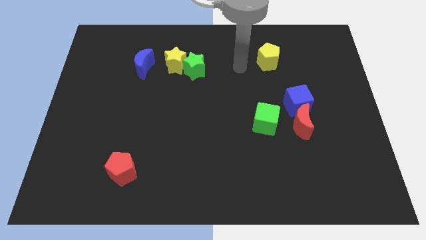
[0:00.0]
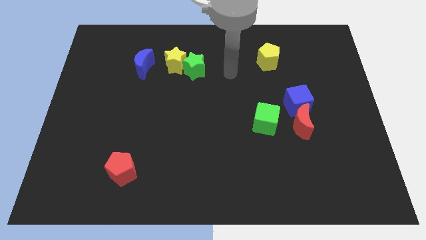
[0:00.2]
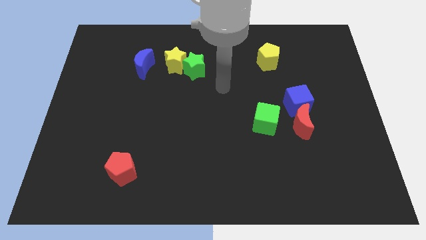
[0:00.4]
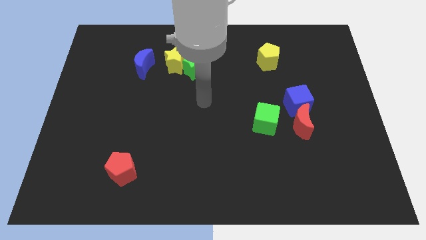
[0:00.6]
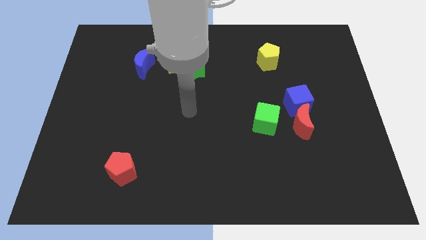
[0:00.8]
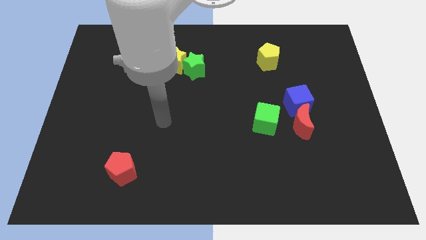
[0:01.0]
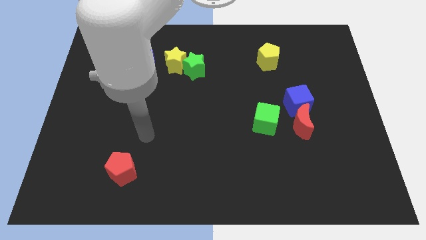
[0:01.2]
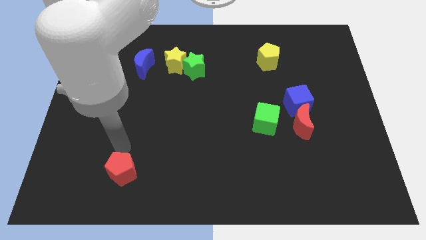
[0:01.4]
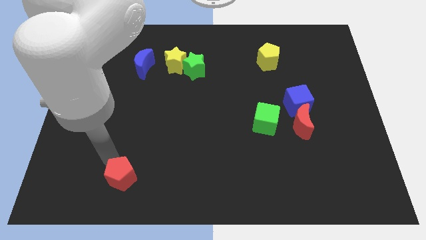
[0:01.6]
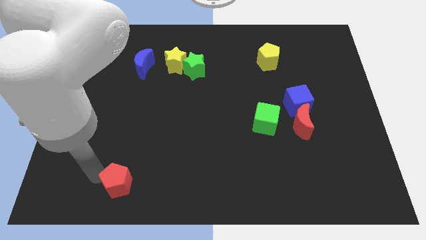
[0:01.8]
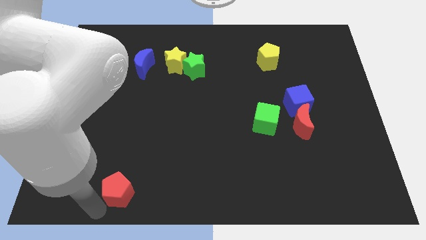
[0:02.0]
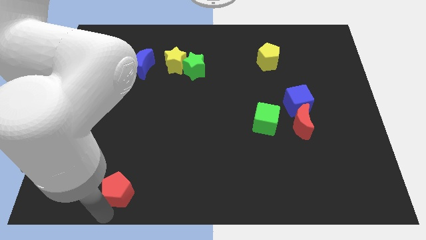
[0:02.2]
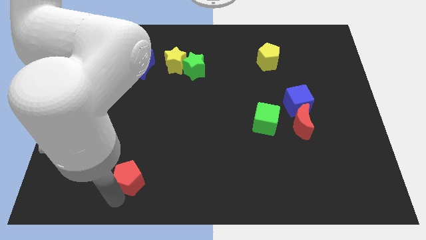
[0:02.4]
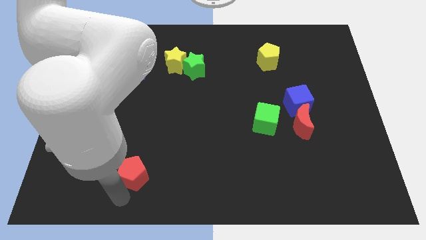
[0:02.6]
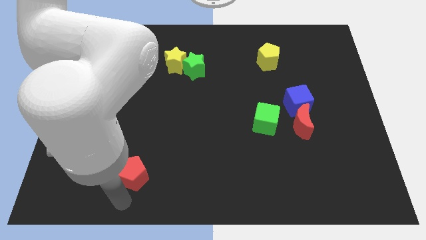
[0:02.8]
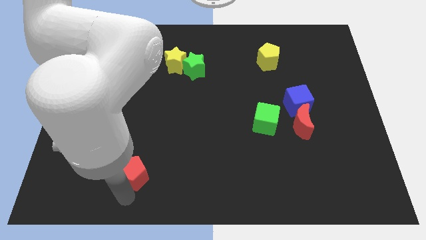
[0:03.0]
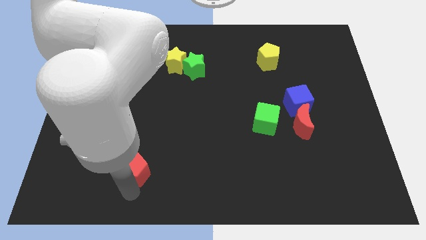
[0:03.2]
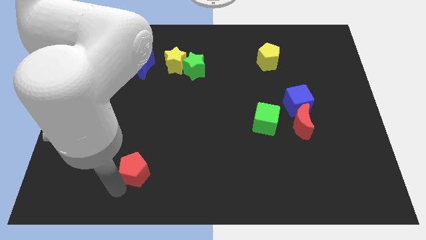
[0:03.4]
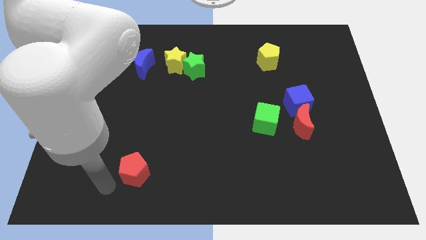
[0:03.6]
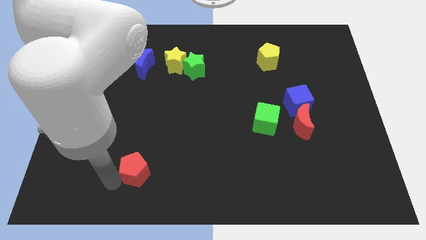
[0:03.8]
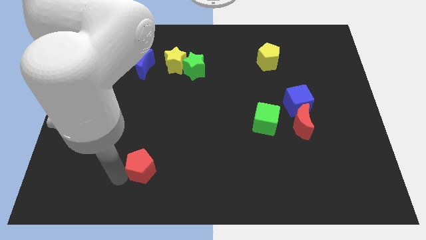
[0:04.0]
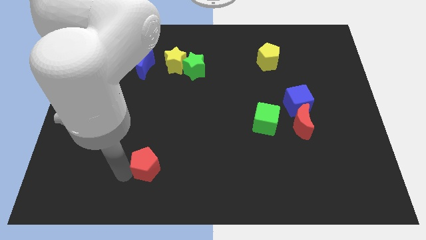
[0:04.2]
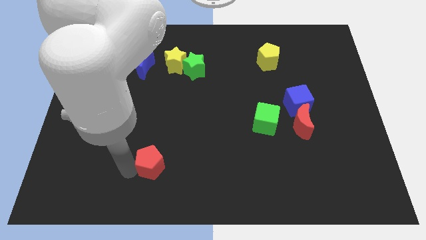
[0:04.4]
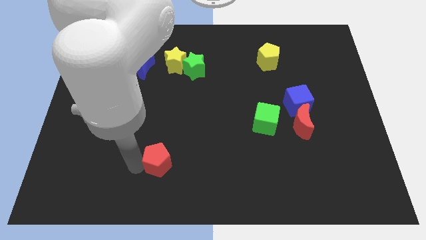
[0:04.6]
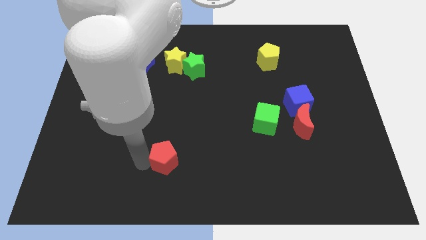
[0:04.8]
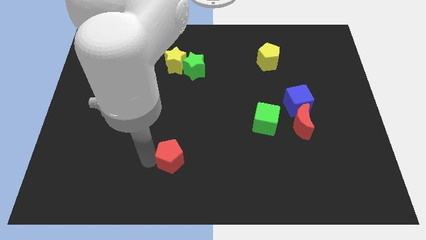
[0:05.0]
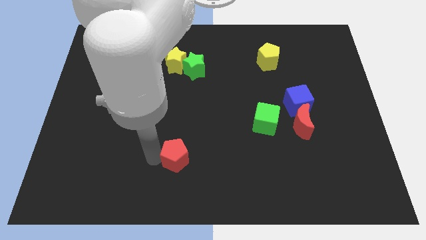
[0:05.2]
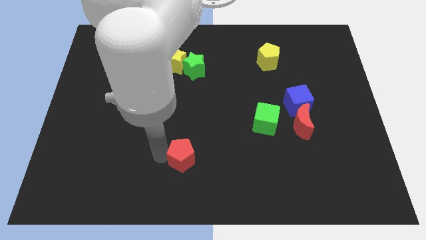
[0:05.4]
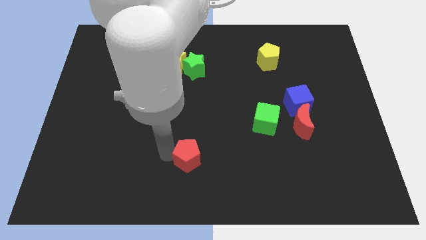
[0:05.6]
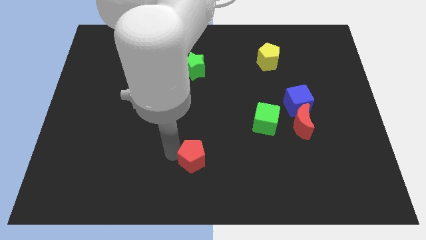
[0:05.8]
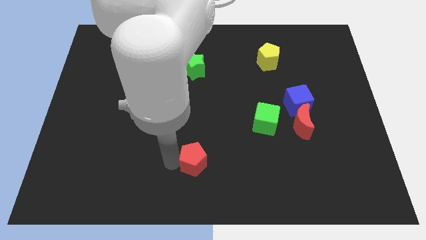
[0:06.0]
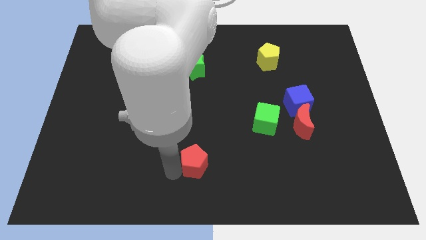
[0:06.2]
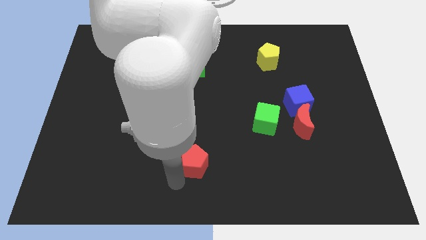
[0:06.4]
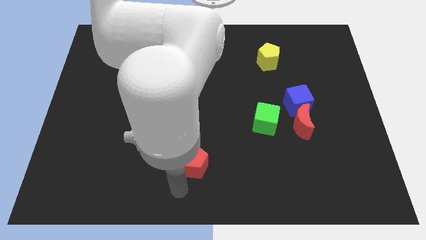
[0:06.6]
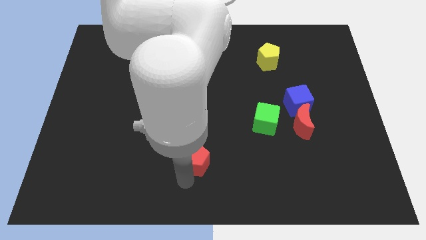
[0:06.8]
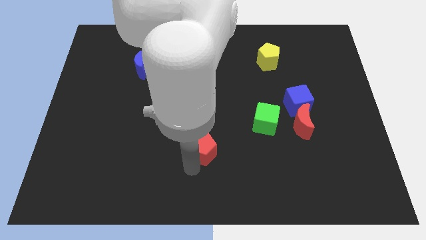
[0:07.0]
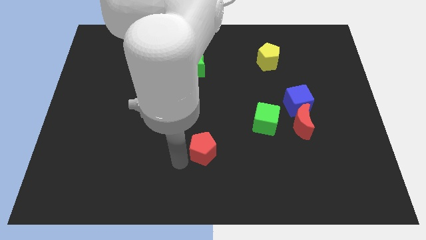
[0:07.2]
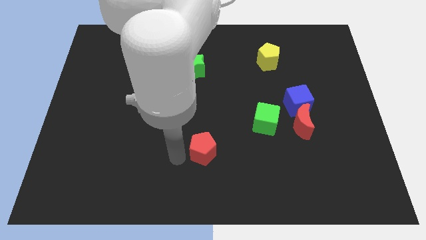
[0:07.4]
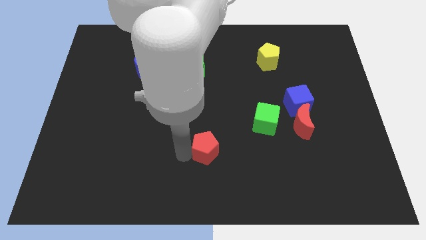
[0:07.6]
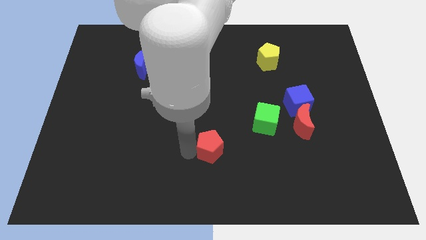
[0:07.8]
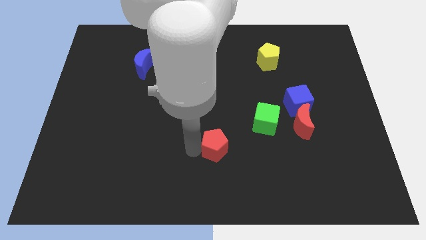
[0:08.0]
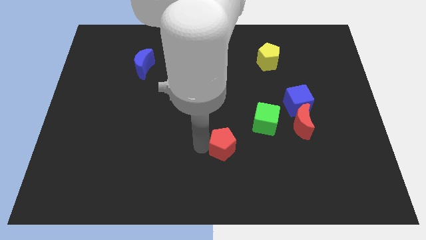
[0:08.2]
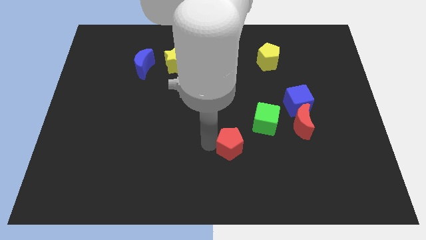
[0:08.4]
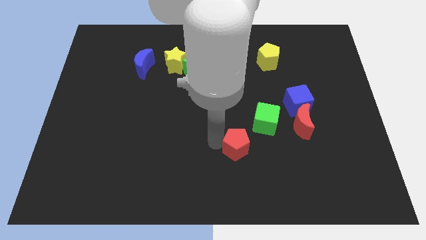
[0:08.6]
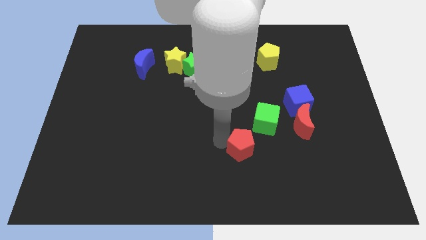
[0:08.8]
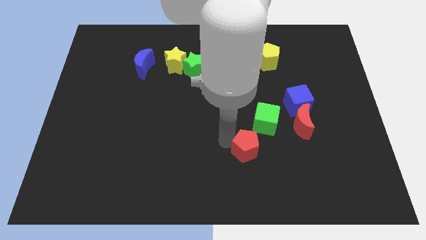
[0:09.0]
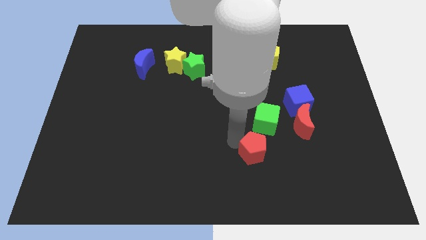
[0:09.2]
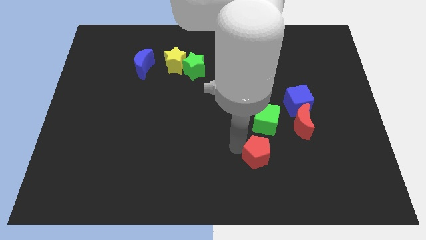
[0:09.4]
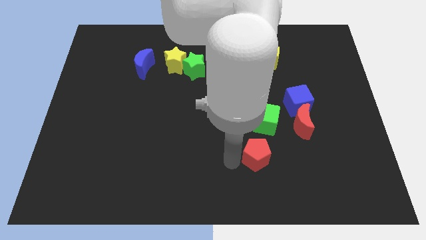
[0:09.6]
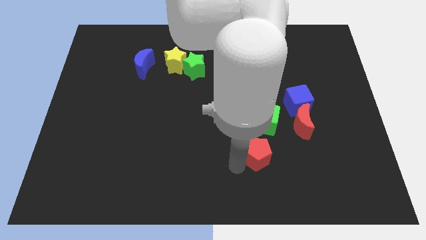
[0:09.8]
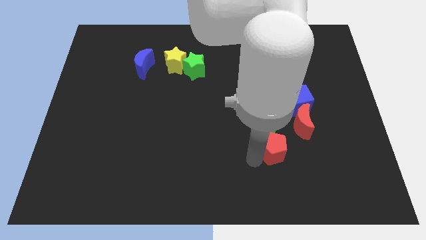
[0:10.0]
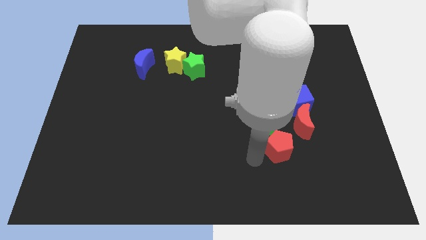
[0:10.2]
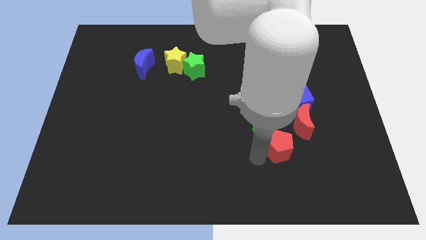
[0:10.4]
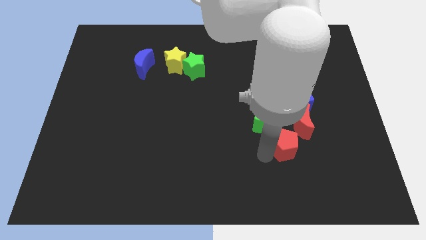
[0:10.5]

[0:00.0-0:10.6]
move the red pentagon to the bottom of the blue cube

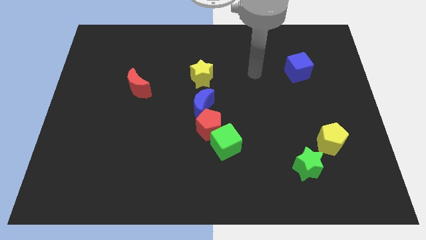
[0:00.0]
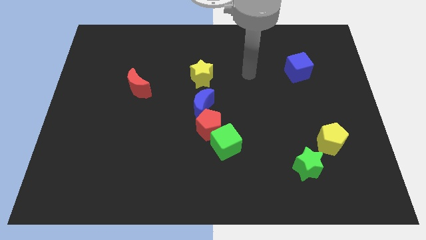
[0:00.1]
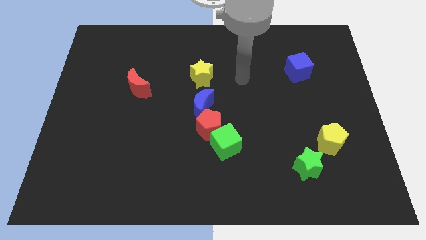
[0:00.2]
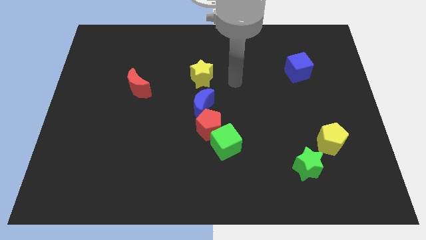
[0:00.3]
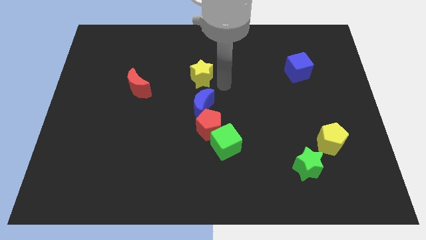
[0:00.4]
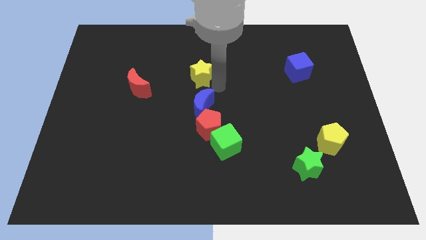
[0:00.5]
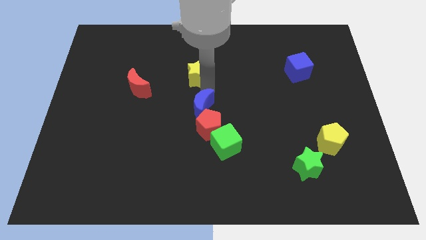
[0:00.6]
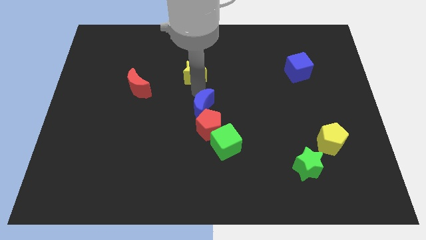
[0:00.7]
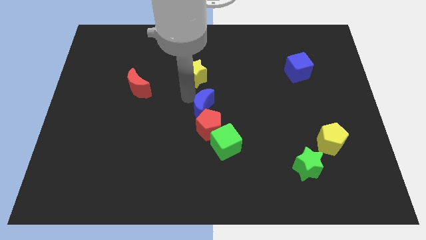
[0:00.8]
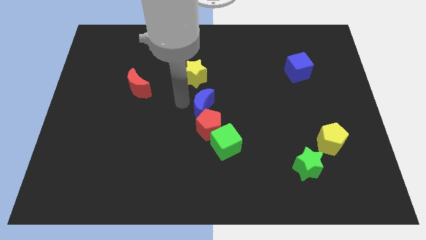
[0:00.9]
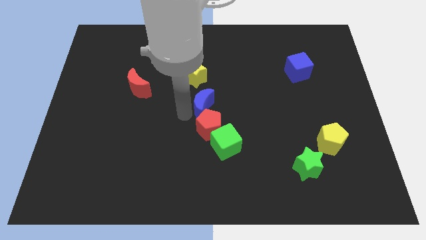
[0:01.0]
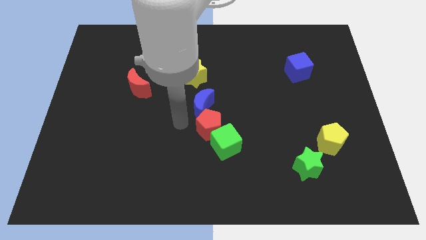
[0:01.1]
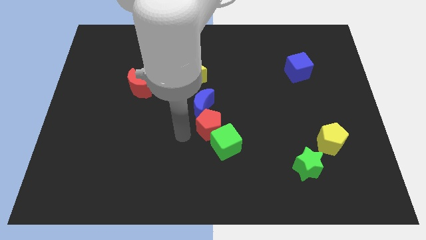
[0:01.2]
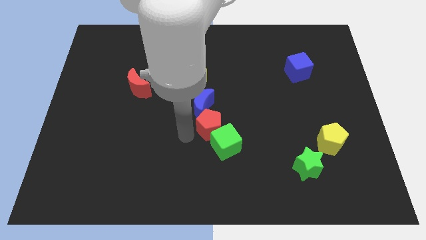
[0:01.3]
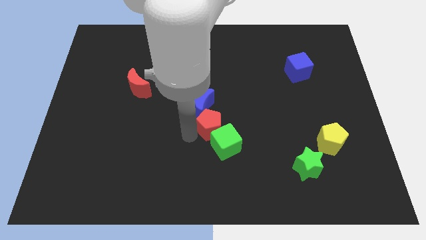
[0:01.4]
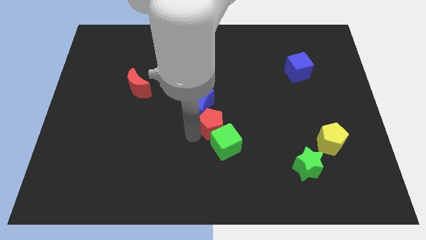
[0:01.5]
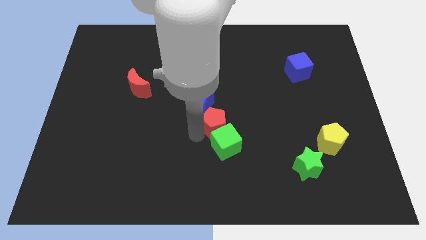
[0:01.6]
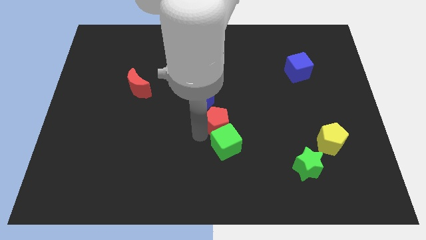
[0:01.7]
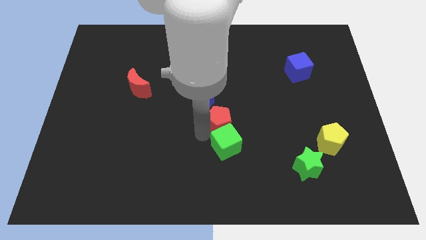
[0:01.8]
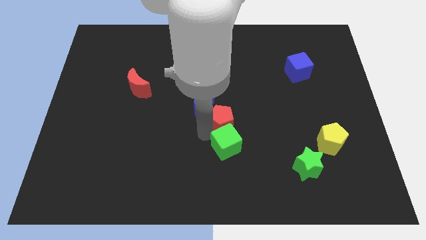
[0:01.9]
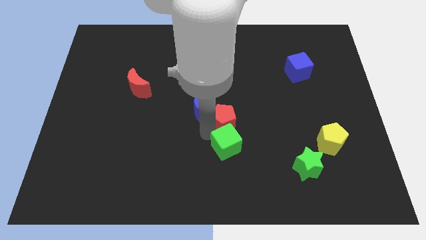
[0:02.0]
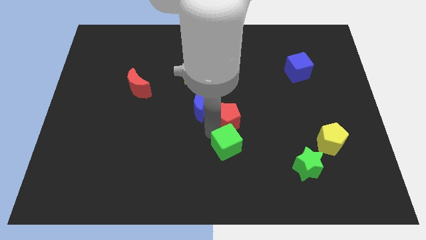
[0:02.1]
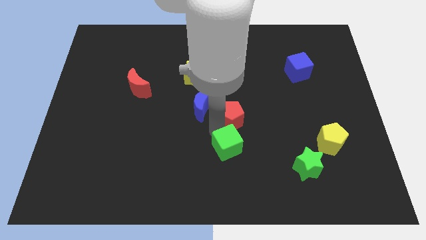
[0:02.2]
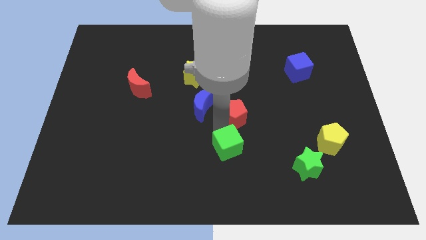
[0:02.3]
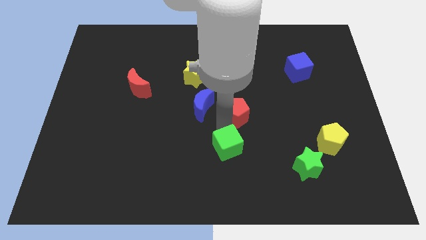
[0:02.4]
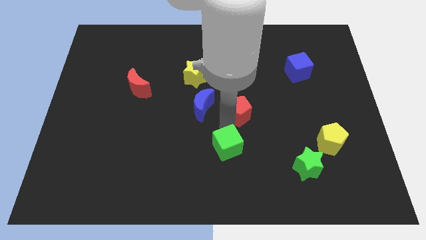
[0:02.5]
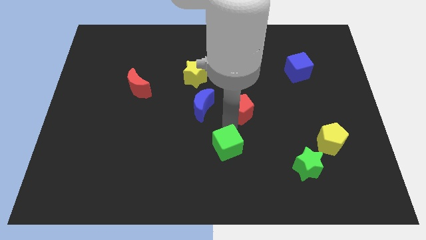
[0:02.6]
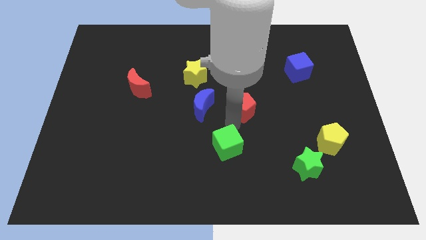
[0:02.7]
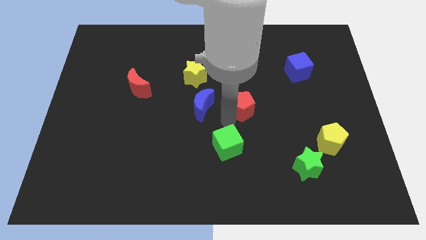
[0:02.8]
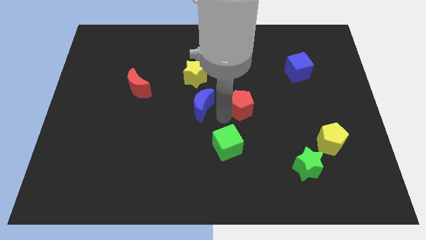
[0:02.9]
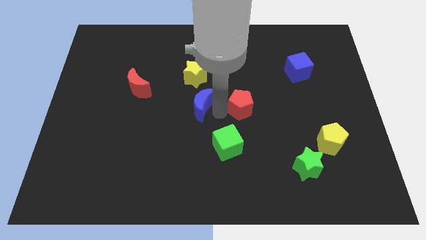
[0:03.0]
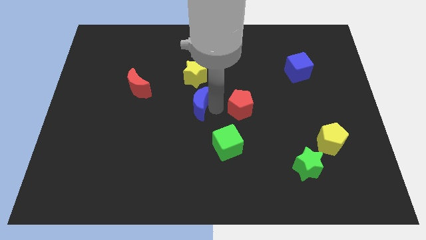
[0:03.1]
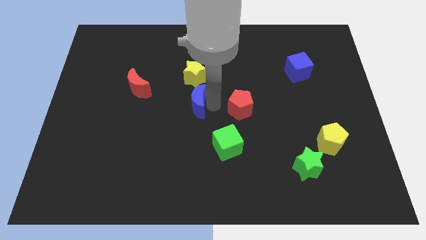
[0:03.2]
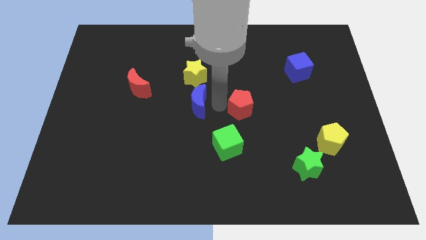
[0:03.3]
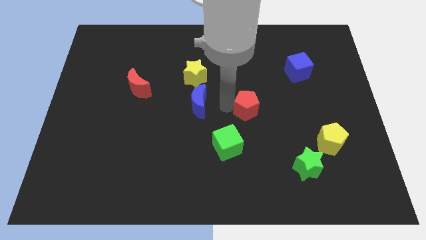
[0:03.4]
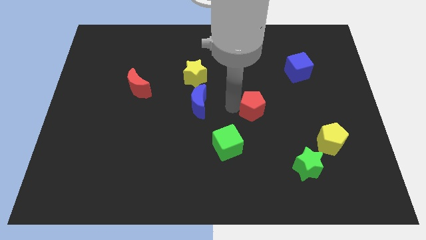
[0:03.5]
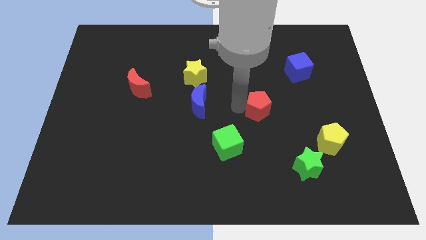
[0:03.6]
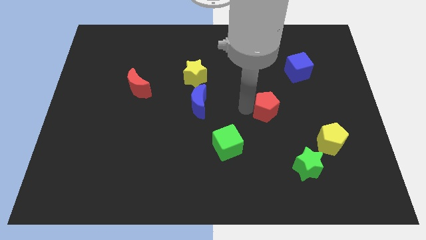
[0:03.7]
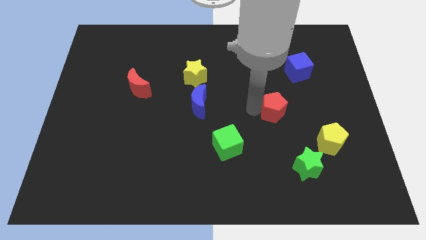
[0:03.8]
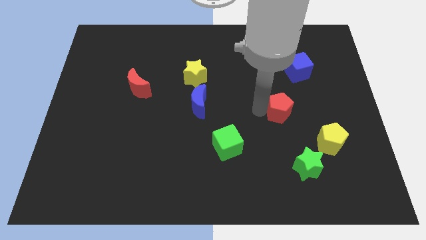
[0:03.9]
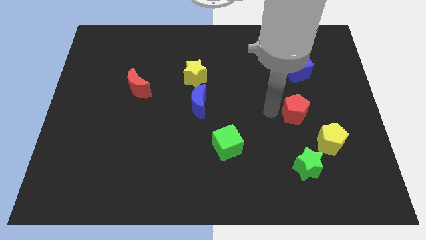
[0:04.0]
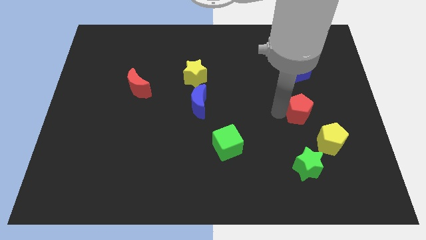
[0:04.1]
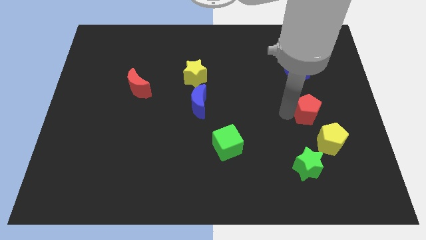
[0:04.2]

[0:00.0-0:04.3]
move the red pentagon to the top side of the yellow pentagon
